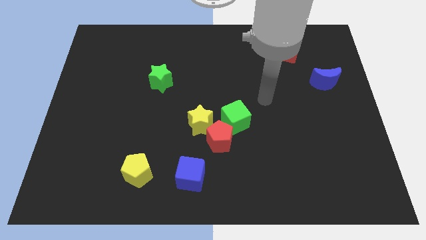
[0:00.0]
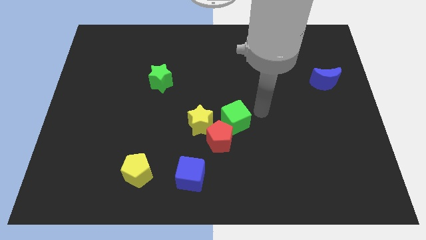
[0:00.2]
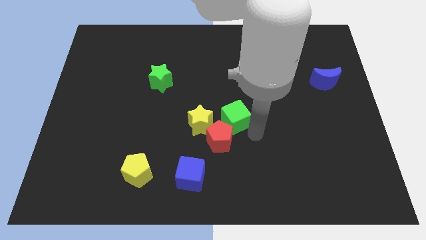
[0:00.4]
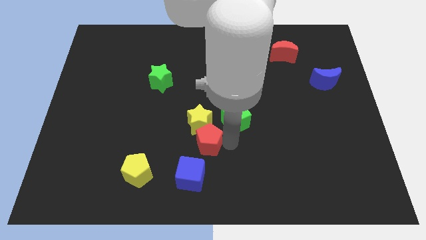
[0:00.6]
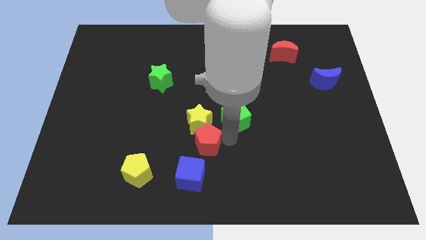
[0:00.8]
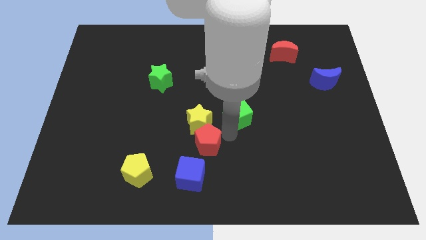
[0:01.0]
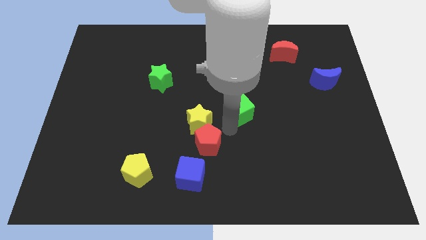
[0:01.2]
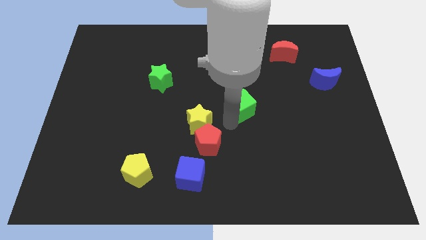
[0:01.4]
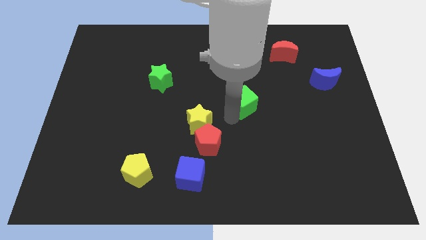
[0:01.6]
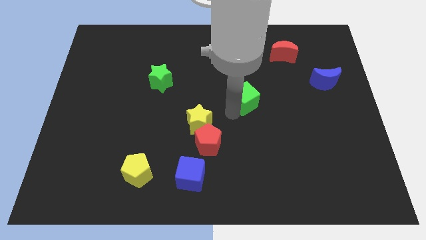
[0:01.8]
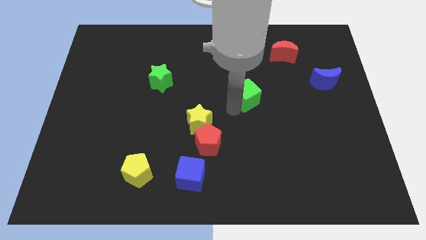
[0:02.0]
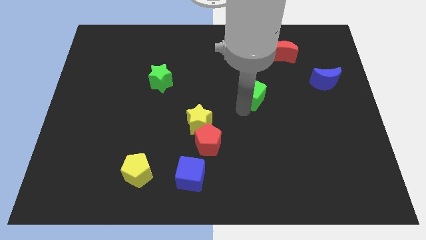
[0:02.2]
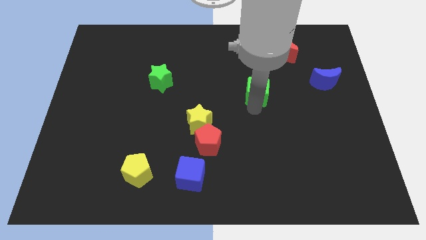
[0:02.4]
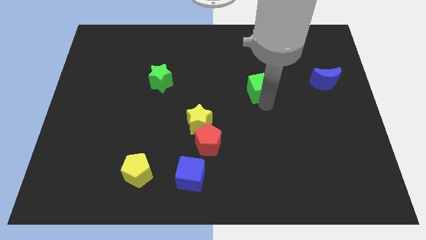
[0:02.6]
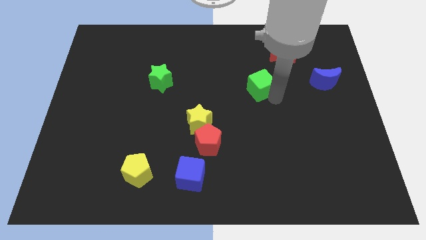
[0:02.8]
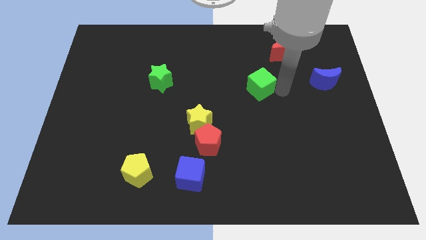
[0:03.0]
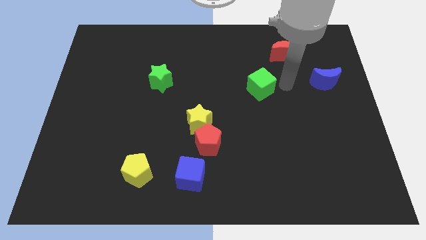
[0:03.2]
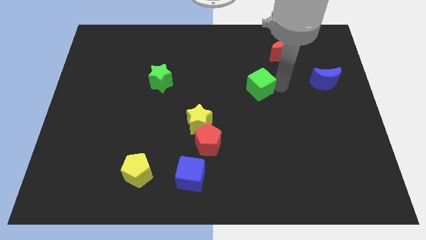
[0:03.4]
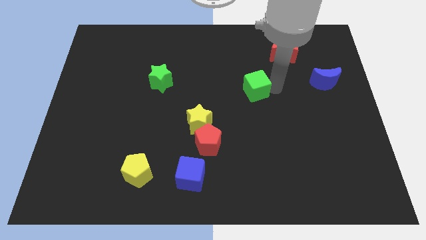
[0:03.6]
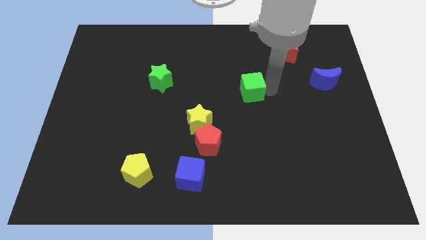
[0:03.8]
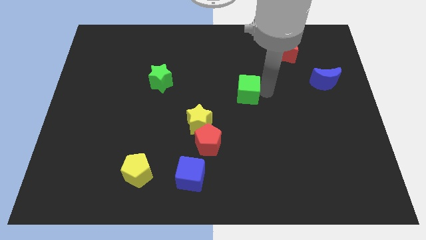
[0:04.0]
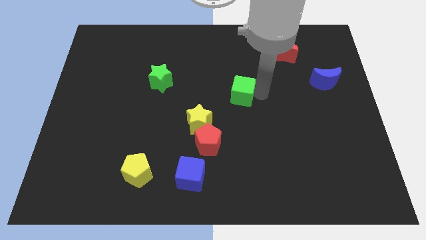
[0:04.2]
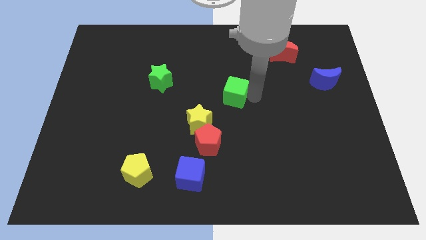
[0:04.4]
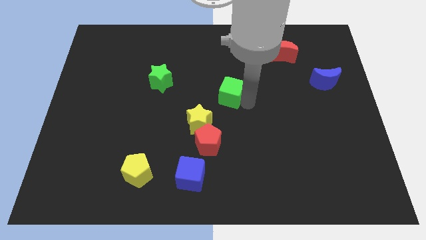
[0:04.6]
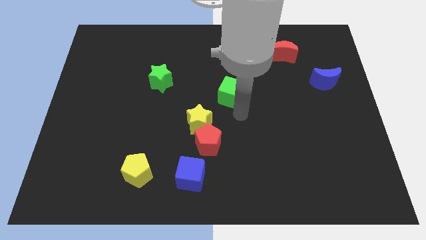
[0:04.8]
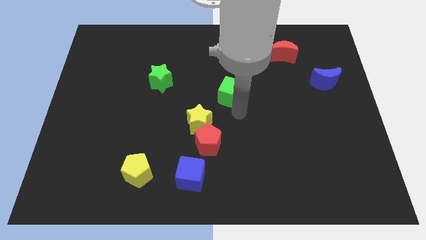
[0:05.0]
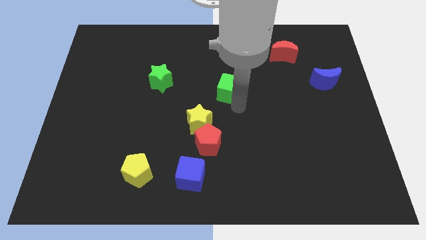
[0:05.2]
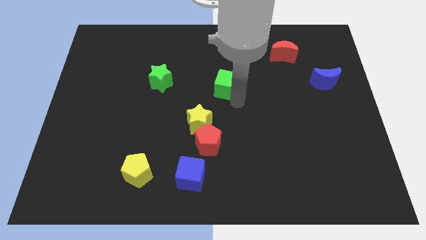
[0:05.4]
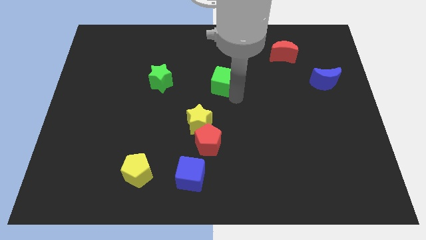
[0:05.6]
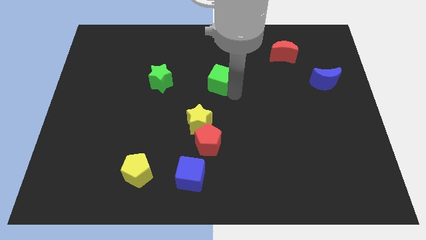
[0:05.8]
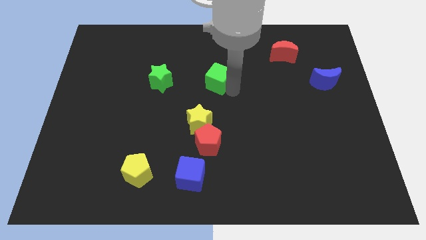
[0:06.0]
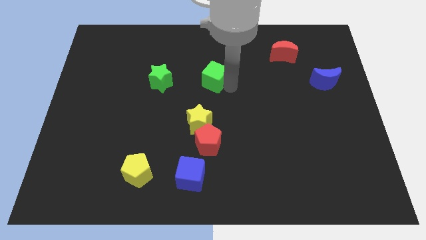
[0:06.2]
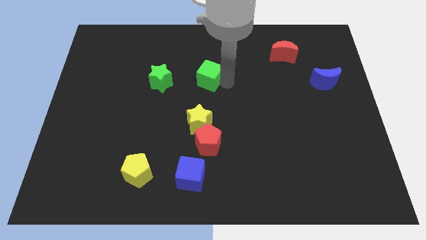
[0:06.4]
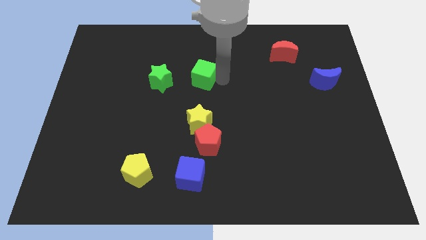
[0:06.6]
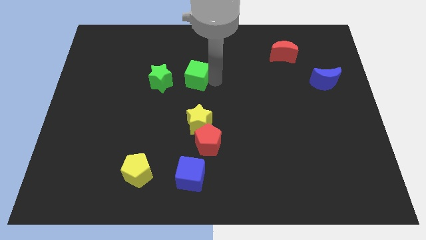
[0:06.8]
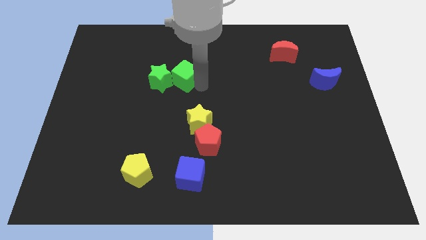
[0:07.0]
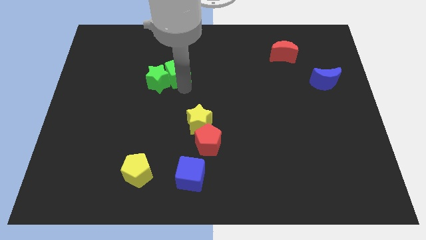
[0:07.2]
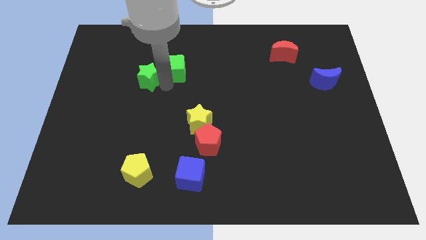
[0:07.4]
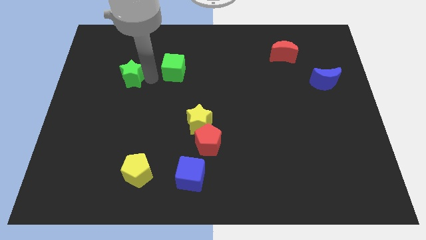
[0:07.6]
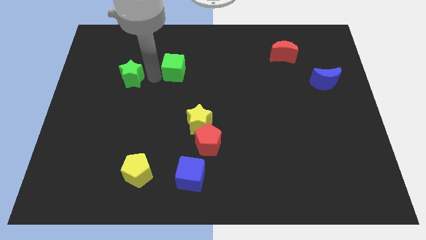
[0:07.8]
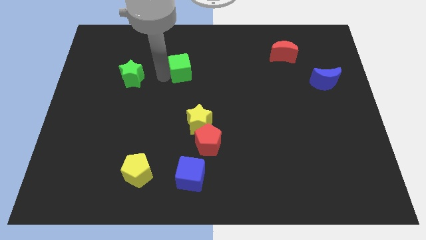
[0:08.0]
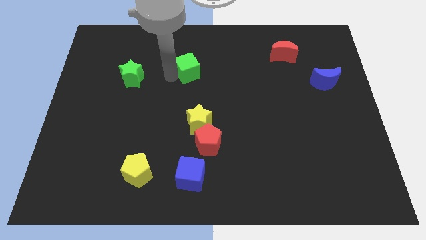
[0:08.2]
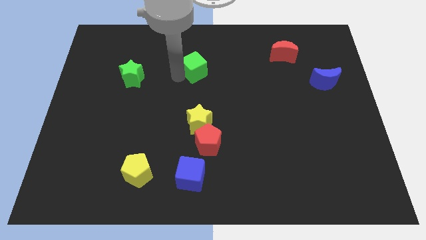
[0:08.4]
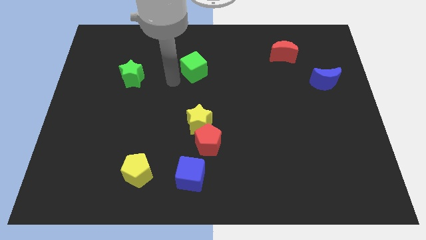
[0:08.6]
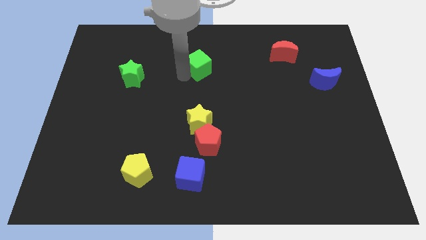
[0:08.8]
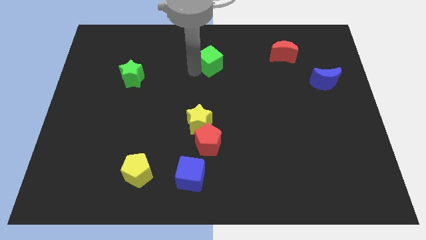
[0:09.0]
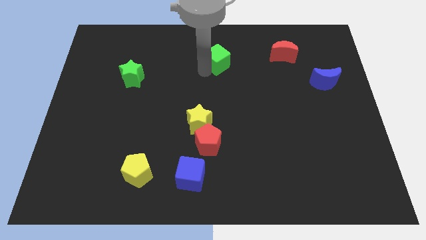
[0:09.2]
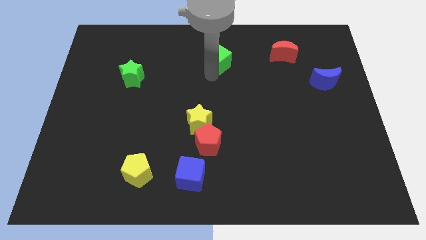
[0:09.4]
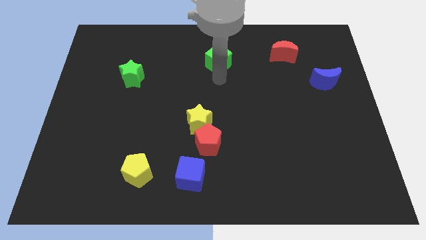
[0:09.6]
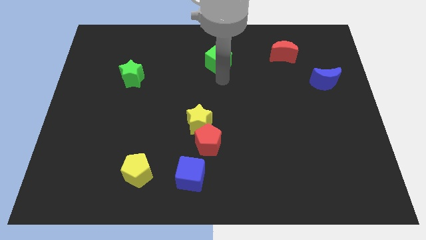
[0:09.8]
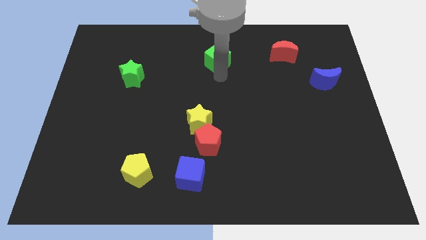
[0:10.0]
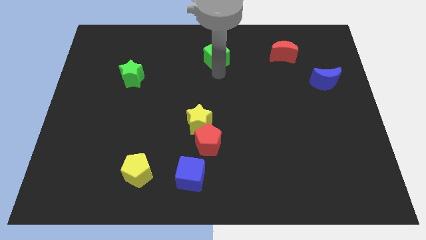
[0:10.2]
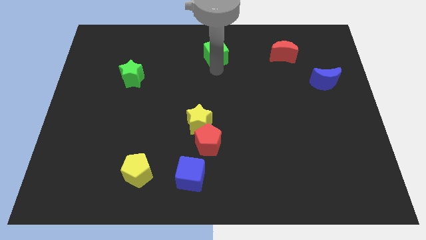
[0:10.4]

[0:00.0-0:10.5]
slide the green cube to the top

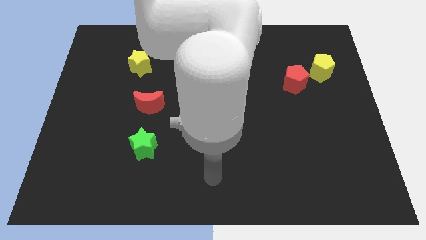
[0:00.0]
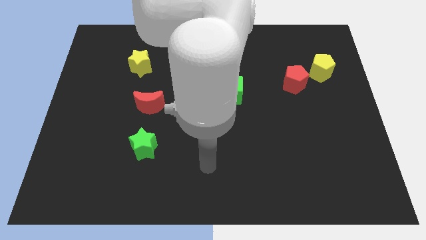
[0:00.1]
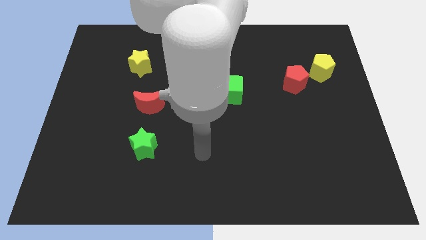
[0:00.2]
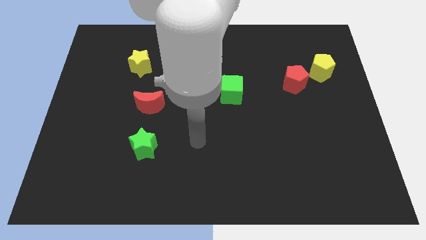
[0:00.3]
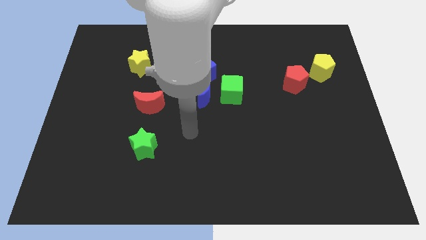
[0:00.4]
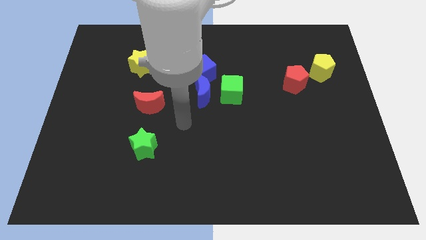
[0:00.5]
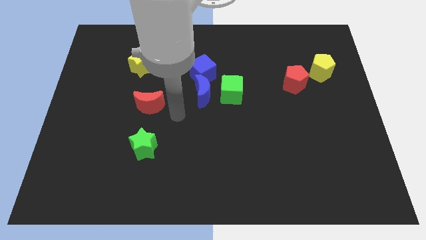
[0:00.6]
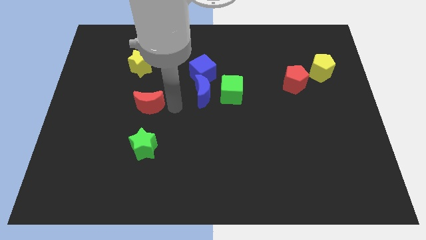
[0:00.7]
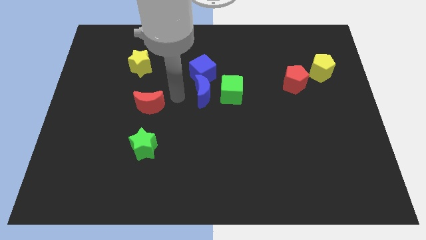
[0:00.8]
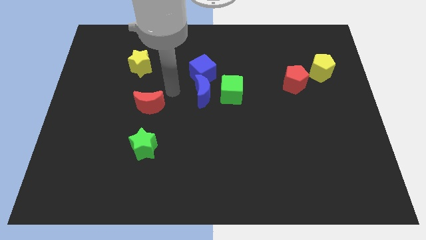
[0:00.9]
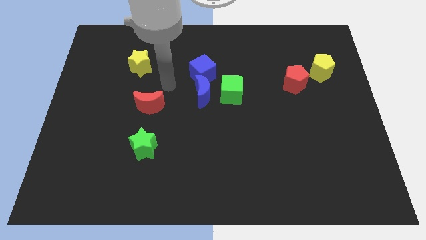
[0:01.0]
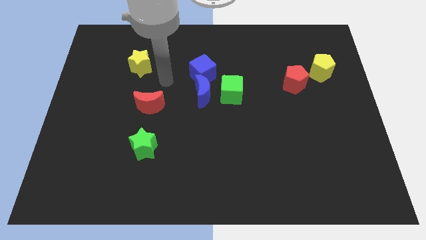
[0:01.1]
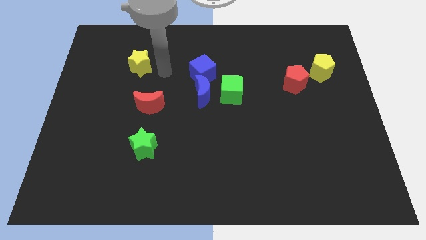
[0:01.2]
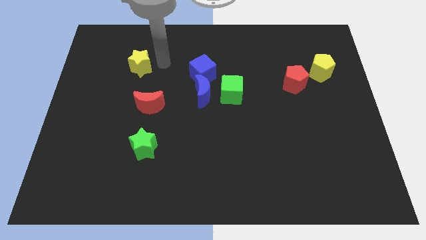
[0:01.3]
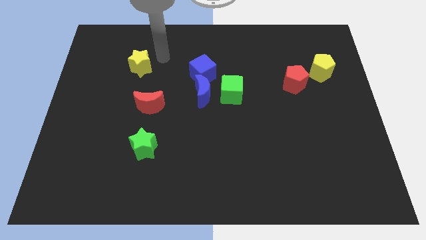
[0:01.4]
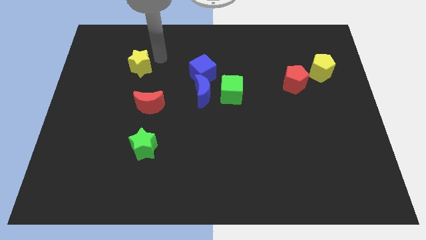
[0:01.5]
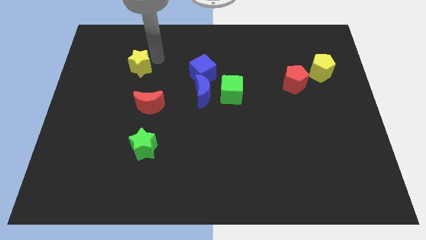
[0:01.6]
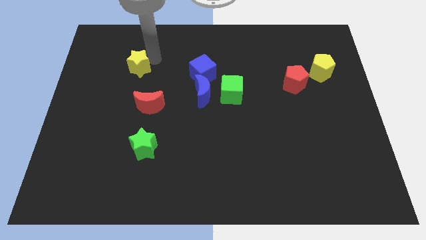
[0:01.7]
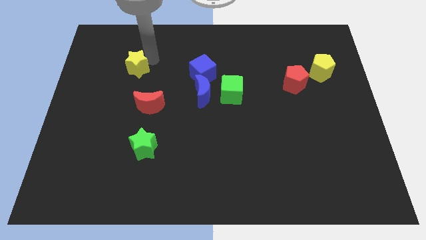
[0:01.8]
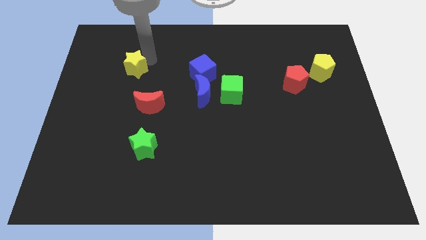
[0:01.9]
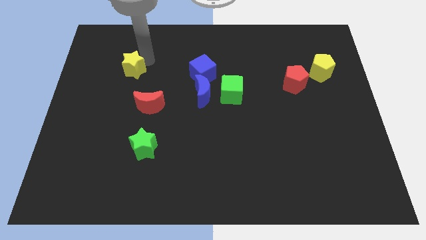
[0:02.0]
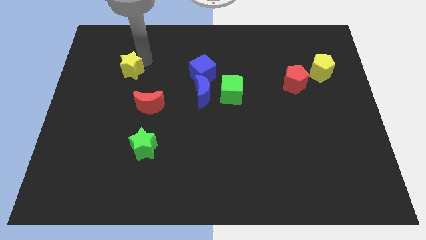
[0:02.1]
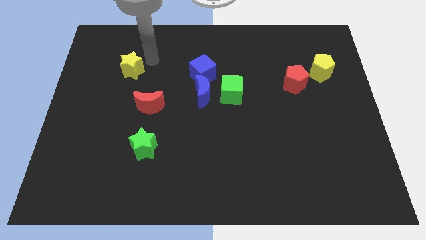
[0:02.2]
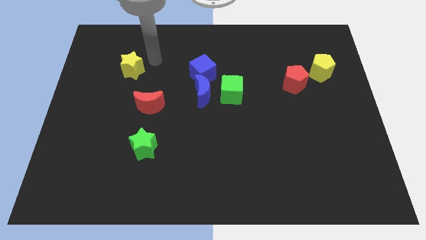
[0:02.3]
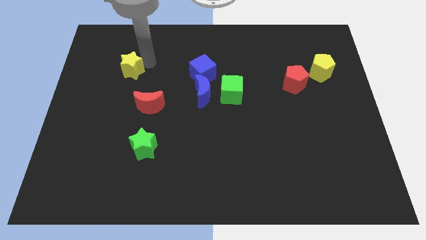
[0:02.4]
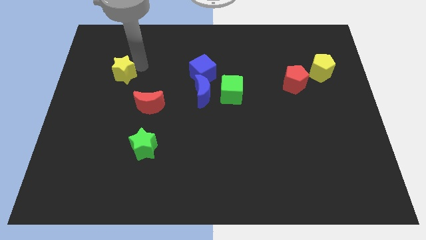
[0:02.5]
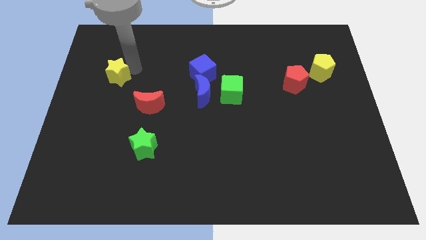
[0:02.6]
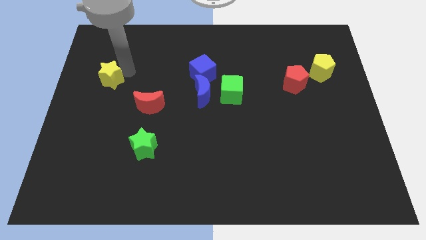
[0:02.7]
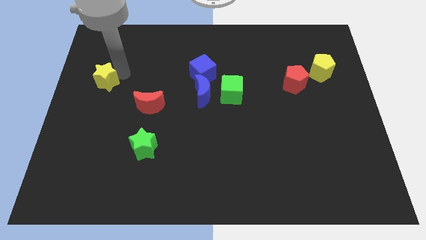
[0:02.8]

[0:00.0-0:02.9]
push the yellow star to the left side of the board
